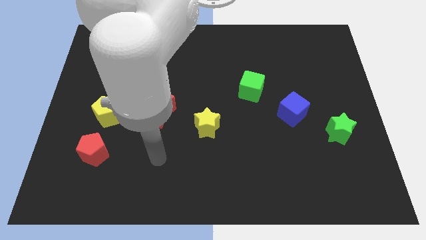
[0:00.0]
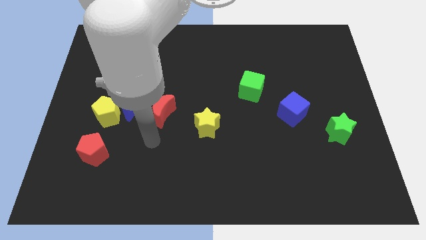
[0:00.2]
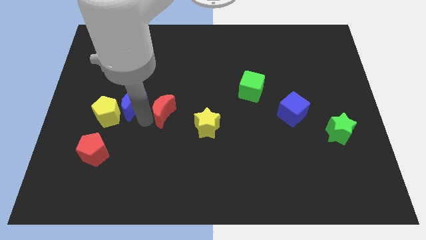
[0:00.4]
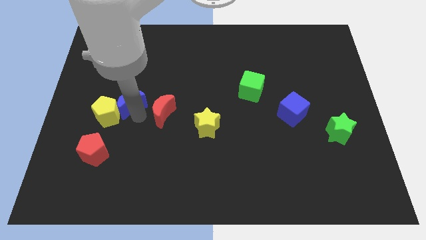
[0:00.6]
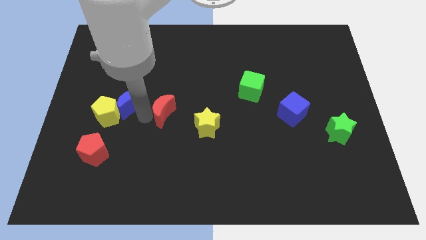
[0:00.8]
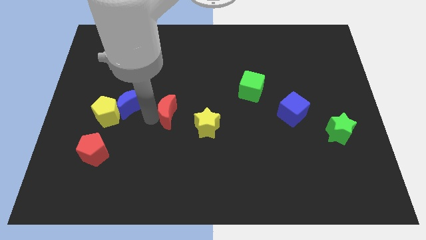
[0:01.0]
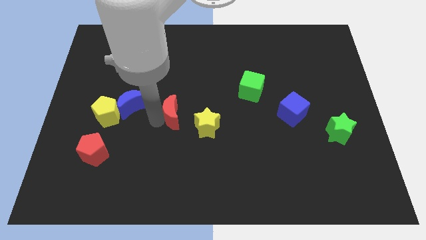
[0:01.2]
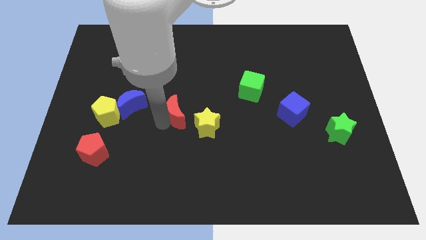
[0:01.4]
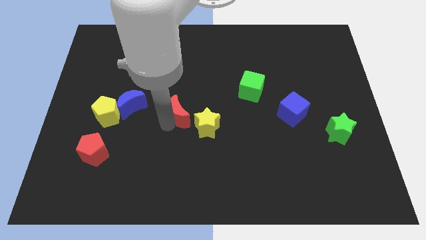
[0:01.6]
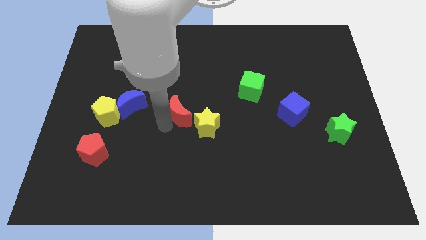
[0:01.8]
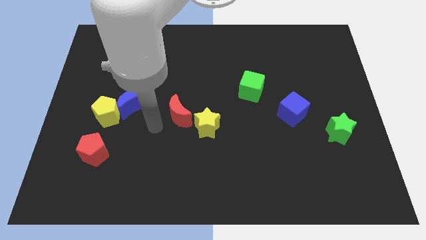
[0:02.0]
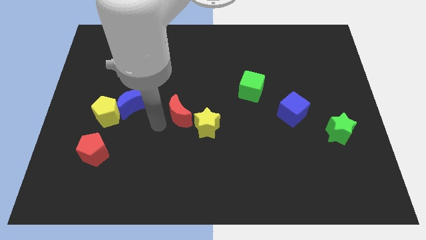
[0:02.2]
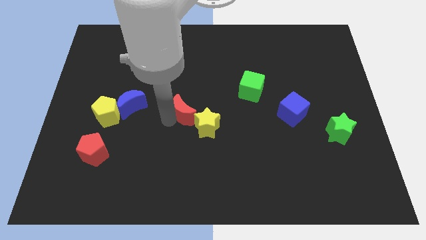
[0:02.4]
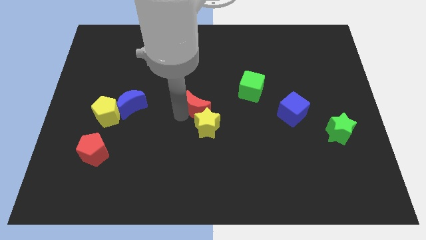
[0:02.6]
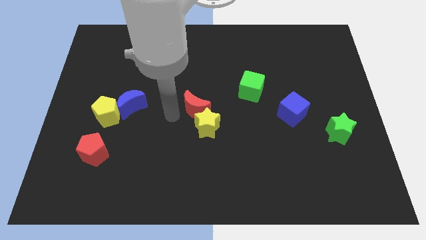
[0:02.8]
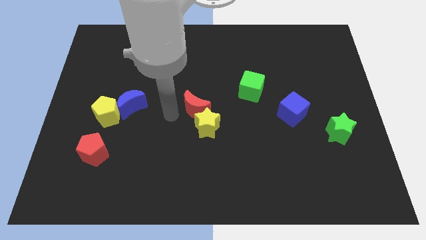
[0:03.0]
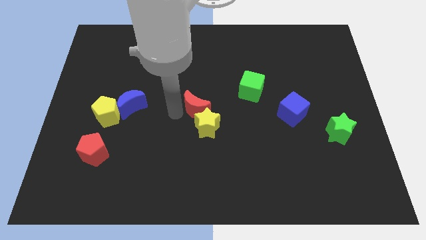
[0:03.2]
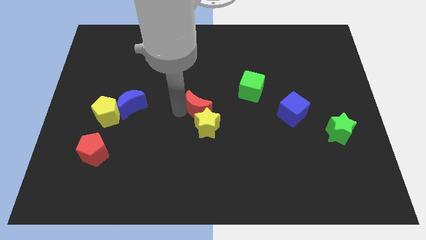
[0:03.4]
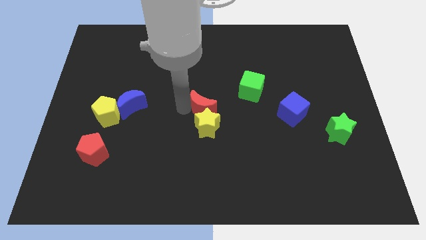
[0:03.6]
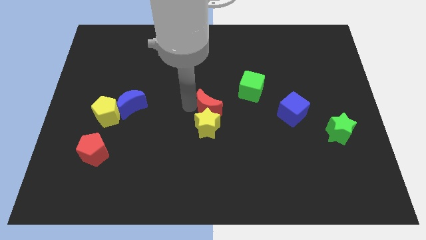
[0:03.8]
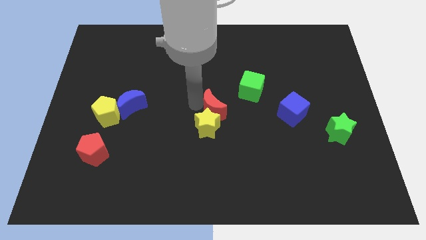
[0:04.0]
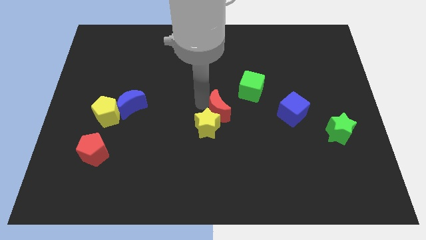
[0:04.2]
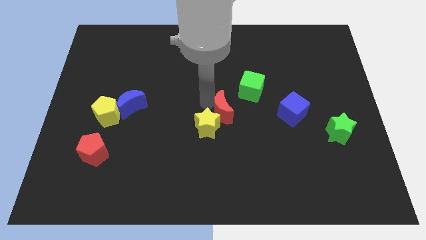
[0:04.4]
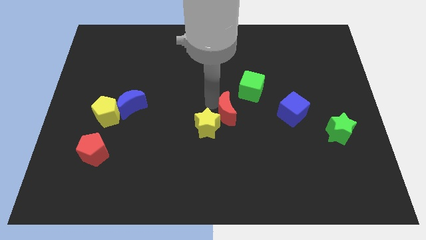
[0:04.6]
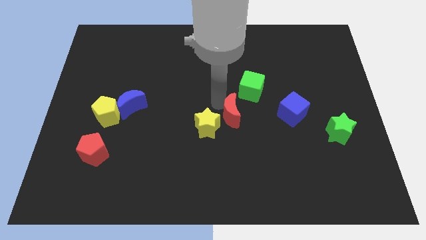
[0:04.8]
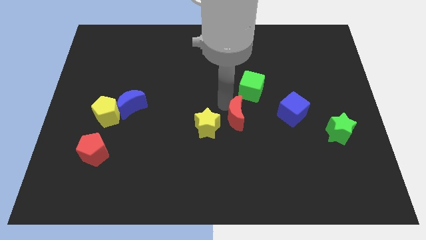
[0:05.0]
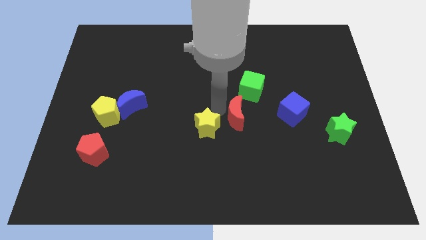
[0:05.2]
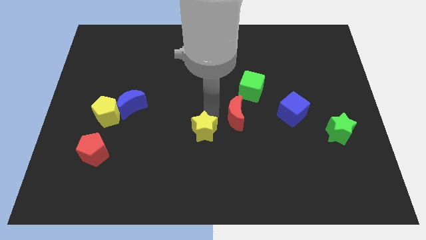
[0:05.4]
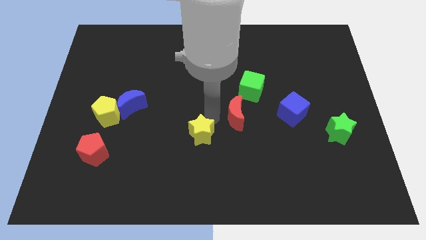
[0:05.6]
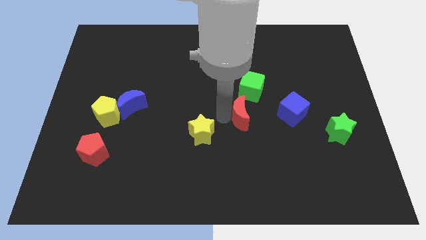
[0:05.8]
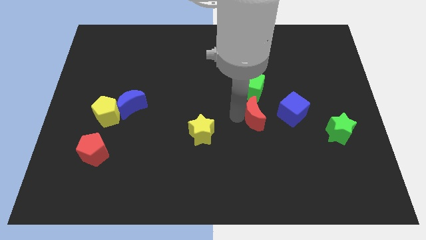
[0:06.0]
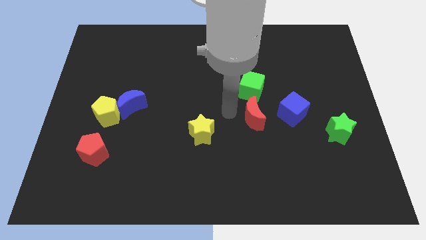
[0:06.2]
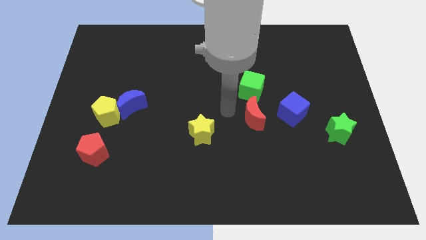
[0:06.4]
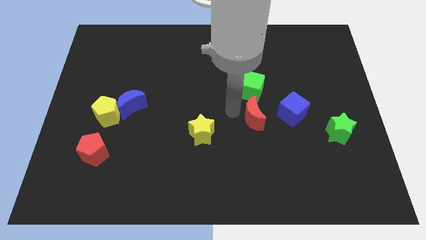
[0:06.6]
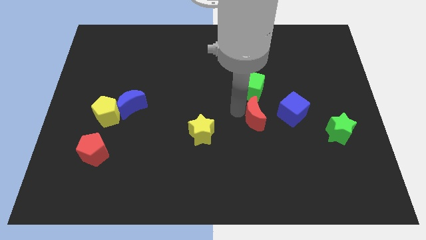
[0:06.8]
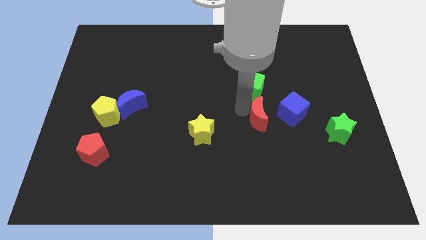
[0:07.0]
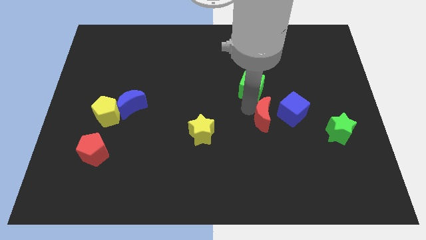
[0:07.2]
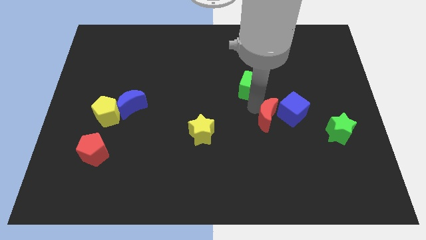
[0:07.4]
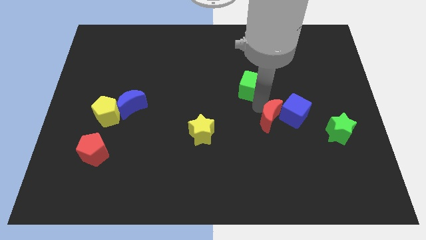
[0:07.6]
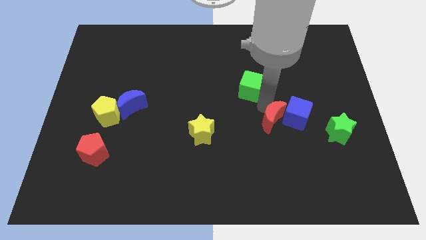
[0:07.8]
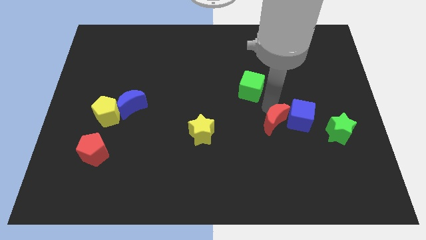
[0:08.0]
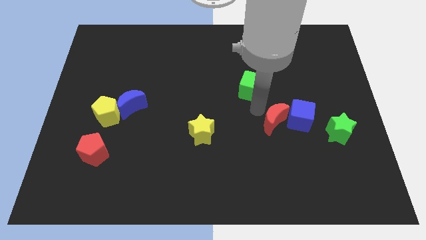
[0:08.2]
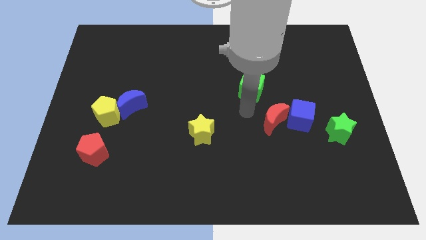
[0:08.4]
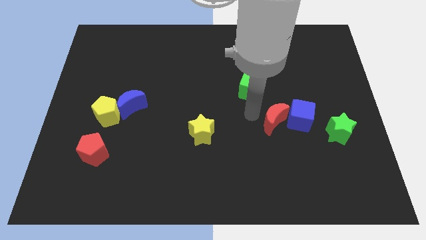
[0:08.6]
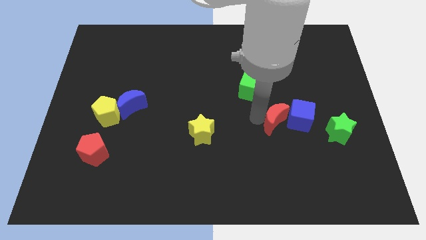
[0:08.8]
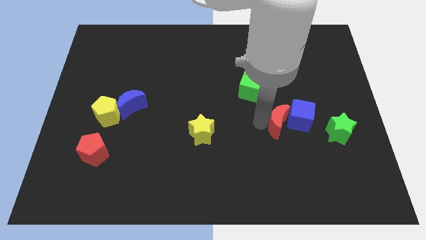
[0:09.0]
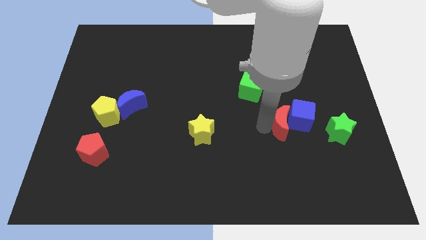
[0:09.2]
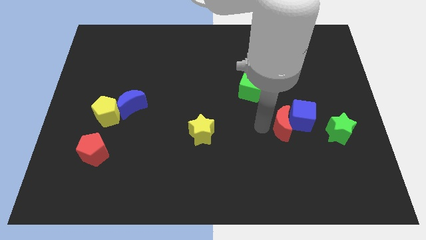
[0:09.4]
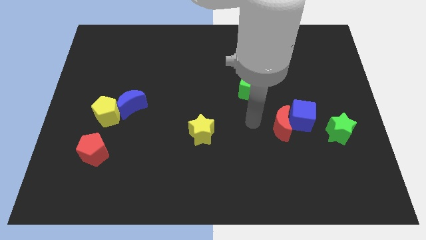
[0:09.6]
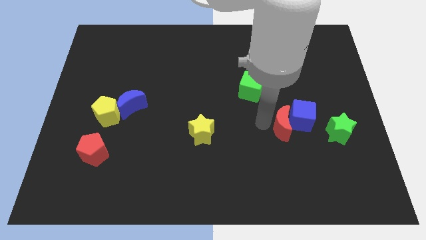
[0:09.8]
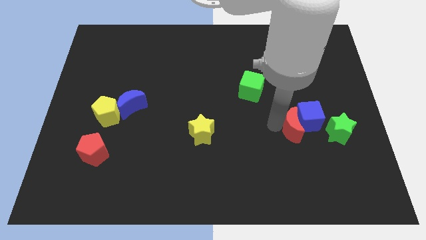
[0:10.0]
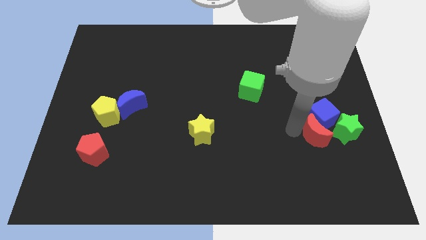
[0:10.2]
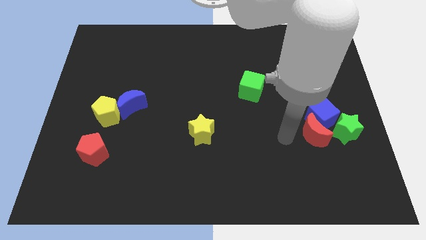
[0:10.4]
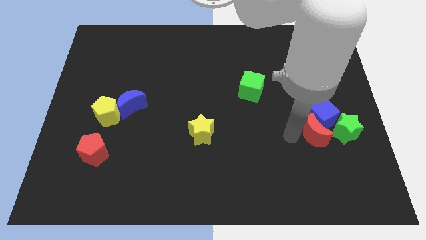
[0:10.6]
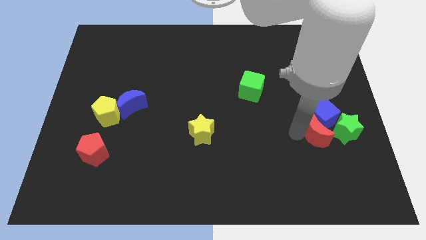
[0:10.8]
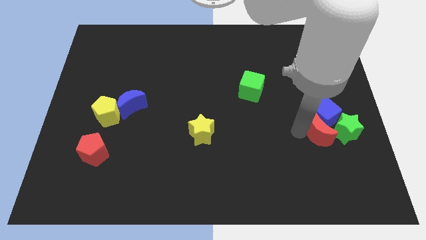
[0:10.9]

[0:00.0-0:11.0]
push the red moon next to the green star

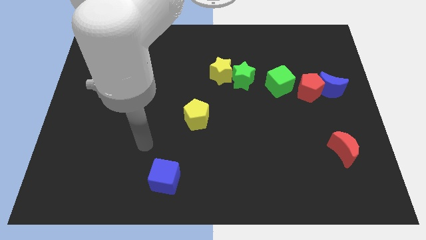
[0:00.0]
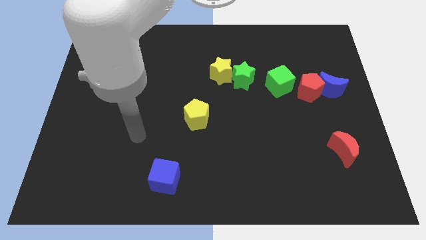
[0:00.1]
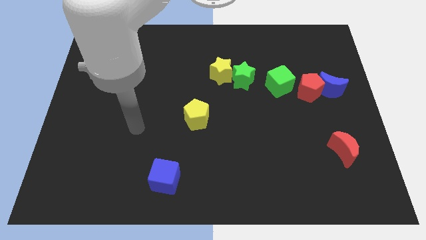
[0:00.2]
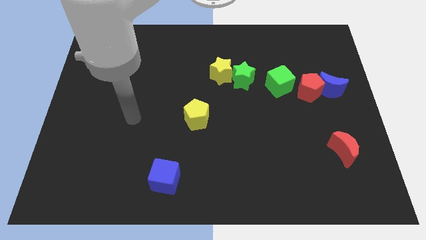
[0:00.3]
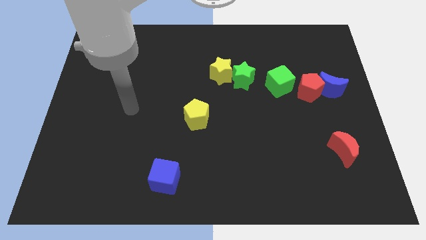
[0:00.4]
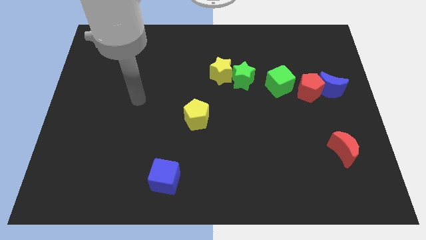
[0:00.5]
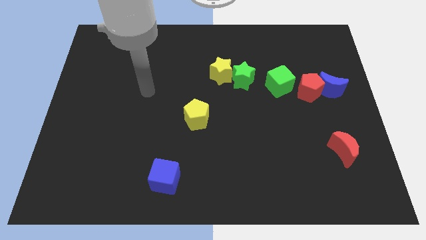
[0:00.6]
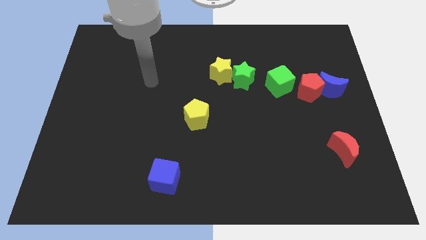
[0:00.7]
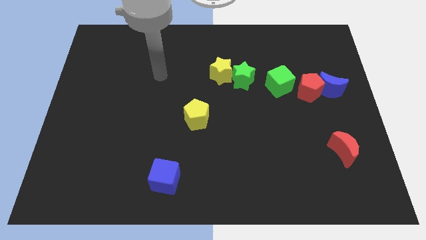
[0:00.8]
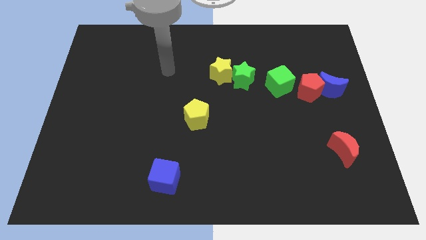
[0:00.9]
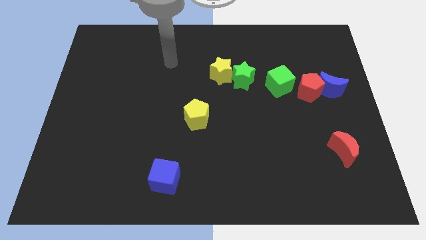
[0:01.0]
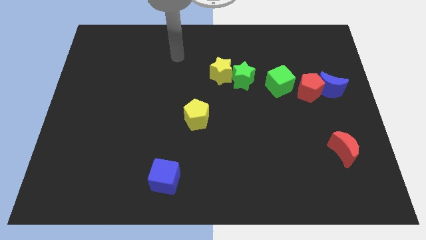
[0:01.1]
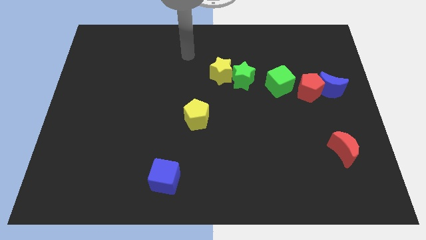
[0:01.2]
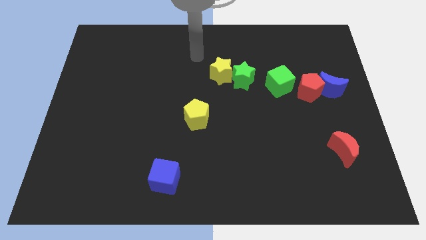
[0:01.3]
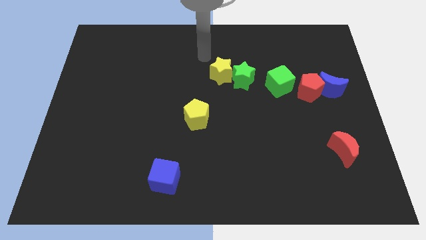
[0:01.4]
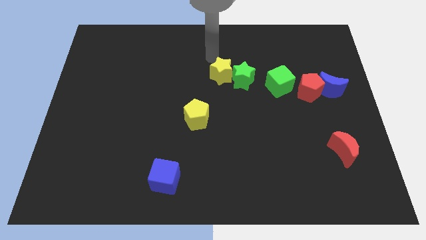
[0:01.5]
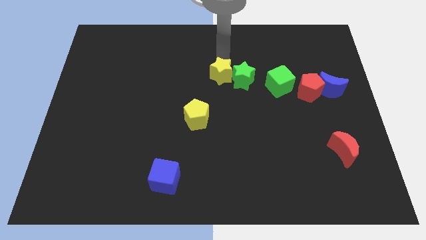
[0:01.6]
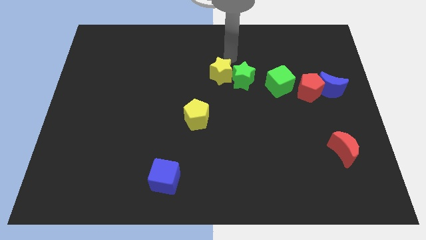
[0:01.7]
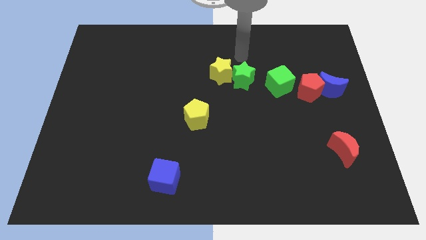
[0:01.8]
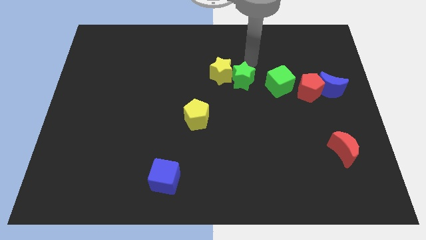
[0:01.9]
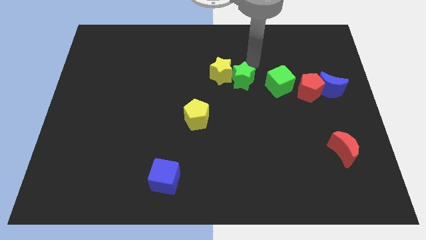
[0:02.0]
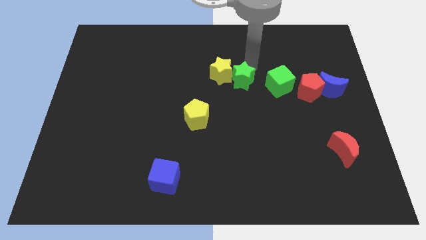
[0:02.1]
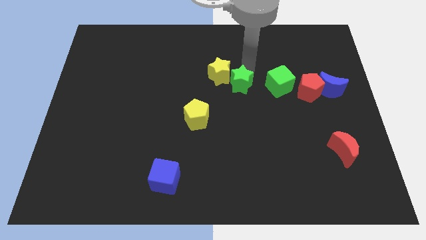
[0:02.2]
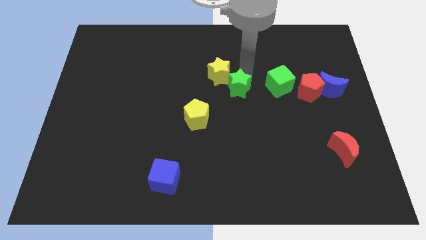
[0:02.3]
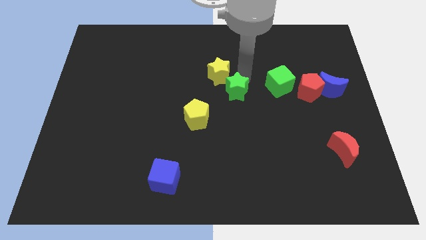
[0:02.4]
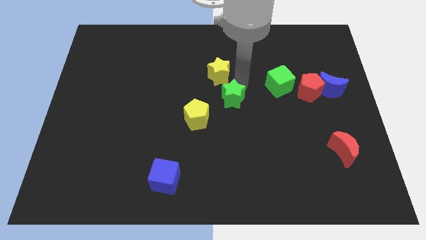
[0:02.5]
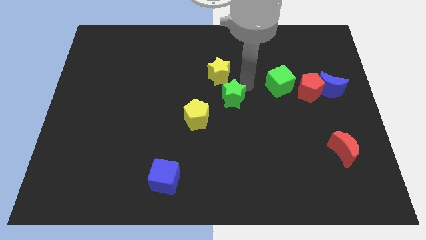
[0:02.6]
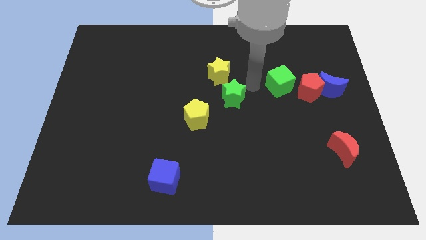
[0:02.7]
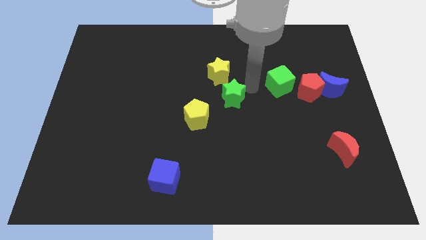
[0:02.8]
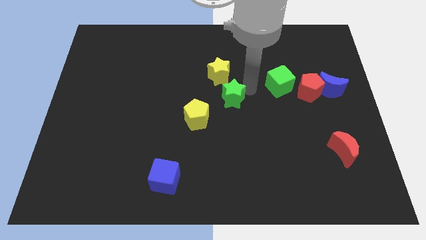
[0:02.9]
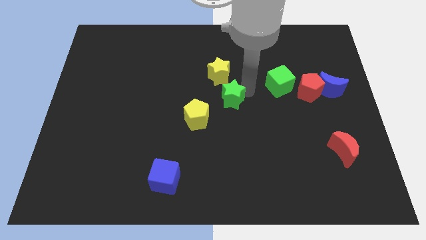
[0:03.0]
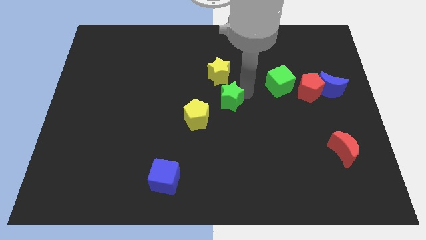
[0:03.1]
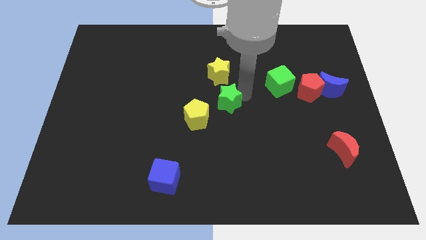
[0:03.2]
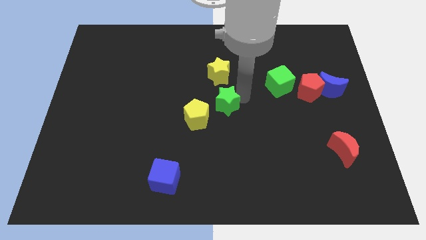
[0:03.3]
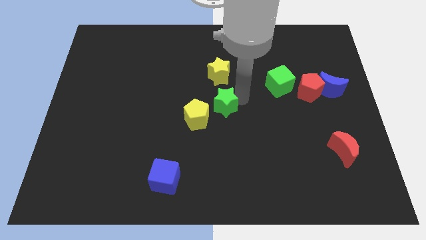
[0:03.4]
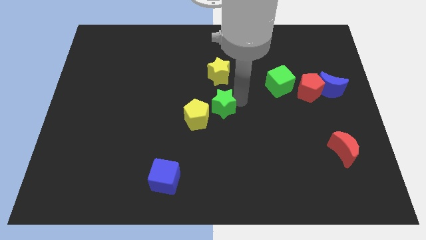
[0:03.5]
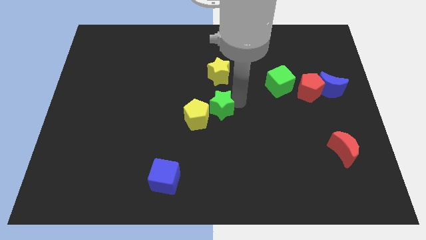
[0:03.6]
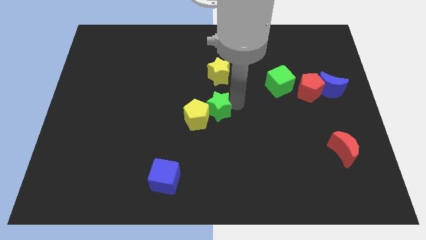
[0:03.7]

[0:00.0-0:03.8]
move the green star close to the yellow pentagon
